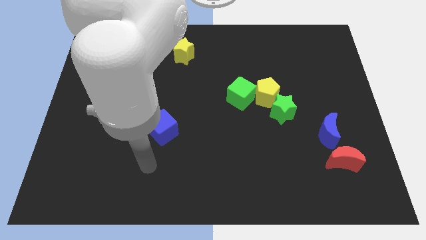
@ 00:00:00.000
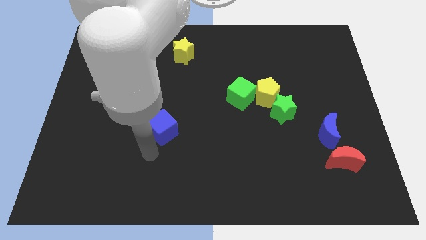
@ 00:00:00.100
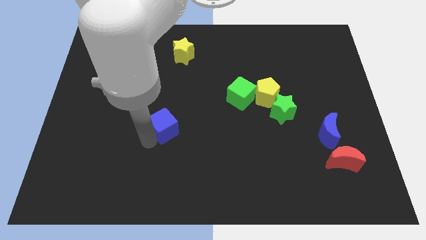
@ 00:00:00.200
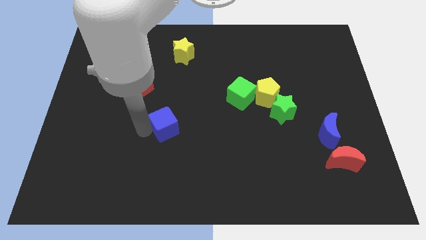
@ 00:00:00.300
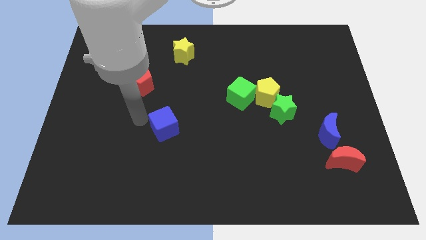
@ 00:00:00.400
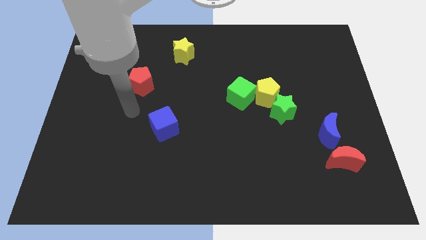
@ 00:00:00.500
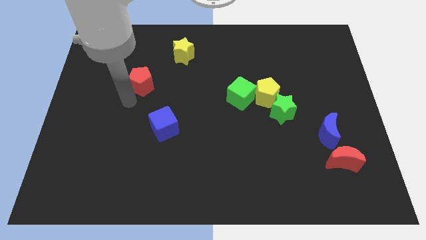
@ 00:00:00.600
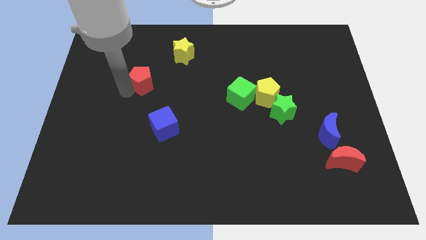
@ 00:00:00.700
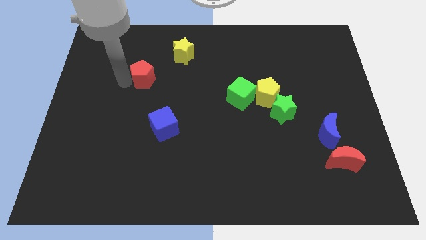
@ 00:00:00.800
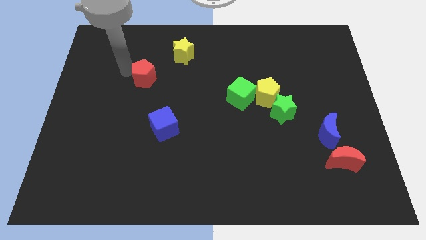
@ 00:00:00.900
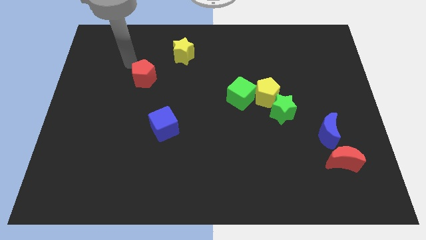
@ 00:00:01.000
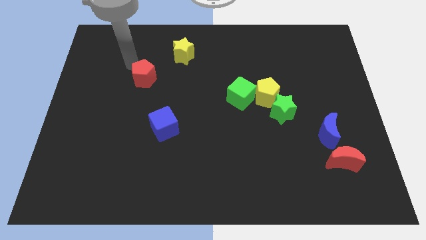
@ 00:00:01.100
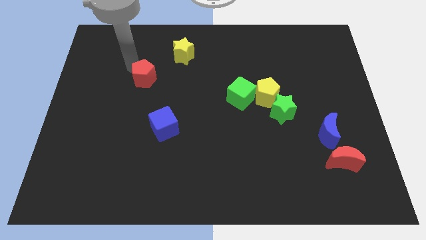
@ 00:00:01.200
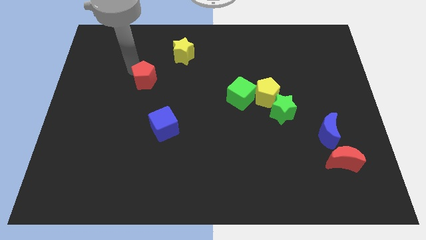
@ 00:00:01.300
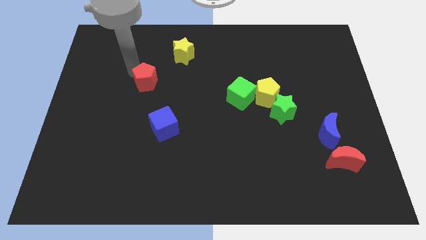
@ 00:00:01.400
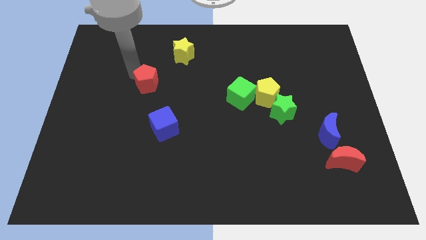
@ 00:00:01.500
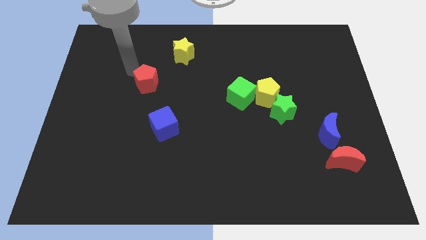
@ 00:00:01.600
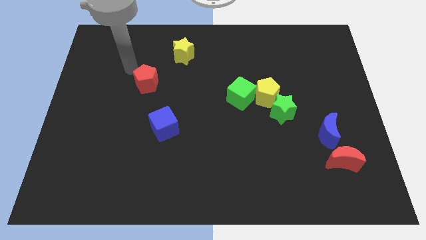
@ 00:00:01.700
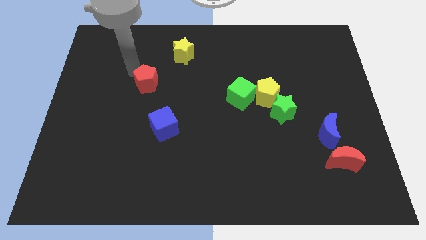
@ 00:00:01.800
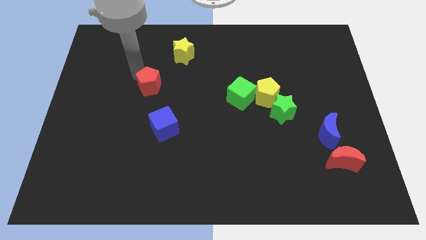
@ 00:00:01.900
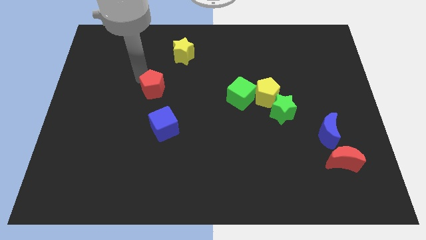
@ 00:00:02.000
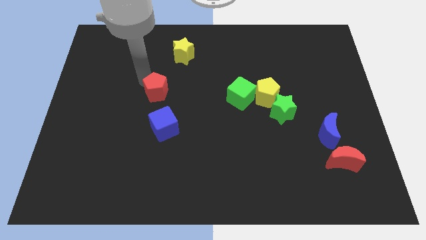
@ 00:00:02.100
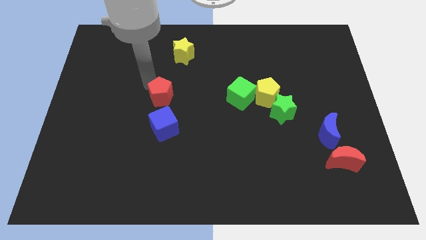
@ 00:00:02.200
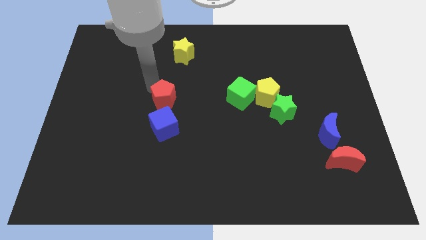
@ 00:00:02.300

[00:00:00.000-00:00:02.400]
push the red pentagon a little downwards and then to the right

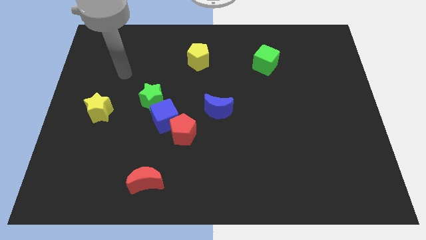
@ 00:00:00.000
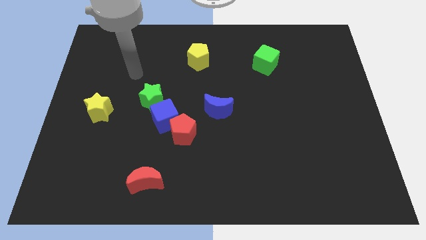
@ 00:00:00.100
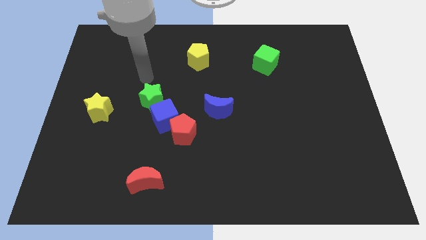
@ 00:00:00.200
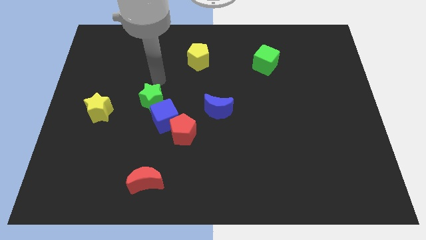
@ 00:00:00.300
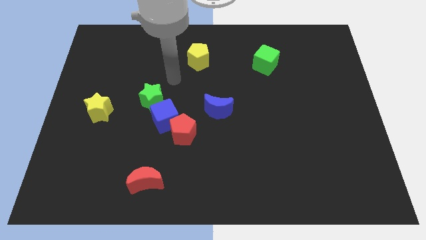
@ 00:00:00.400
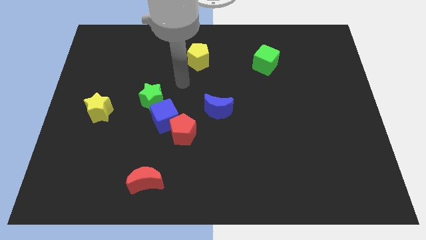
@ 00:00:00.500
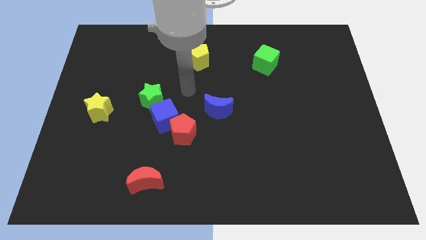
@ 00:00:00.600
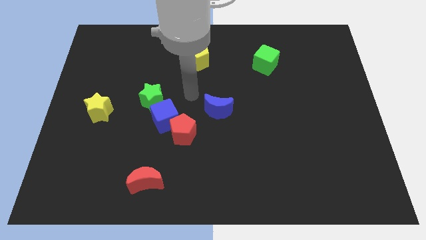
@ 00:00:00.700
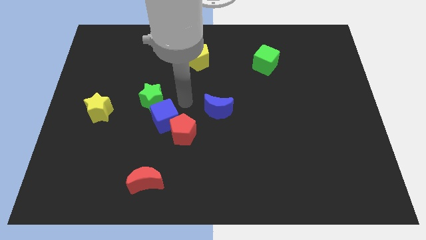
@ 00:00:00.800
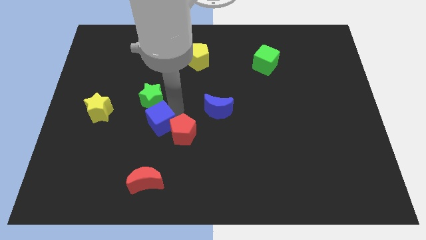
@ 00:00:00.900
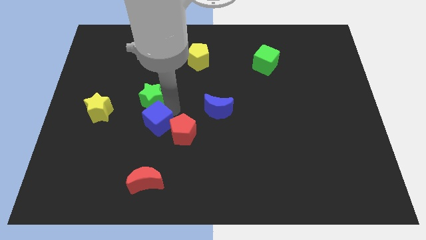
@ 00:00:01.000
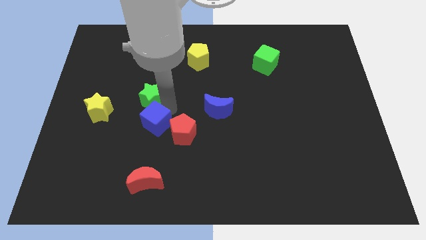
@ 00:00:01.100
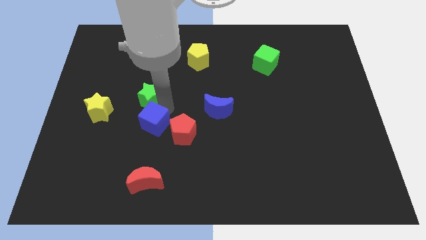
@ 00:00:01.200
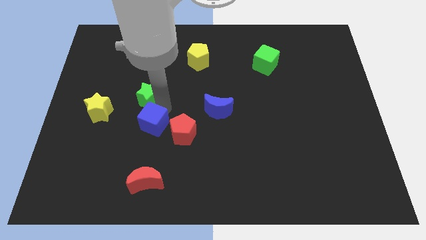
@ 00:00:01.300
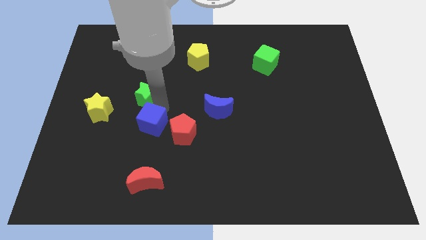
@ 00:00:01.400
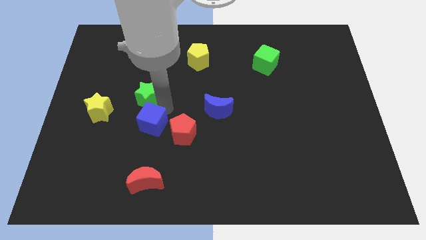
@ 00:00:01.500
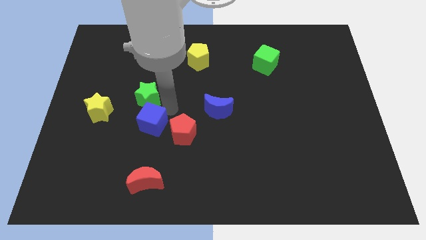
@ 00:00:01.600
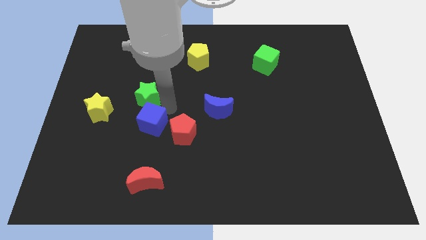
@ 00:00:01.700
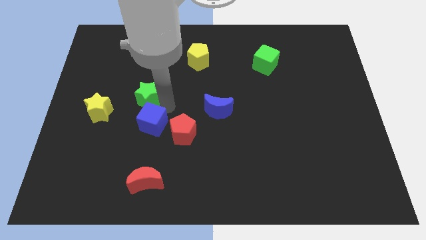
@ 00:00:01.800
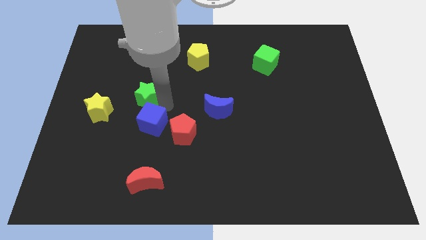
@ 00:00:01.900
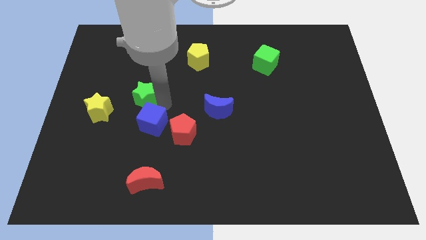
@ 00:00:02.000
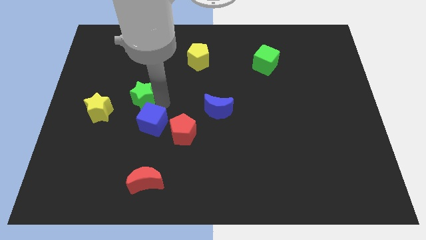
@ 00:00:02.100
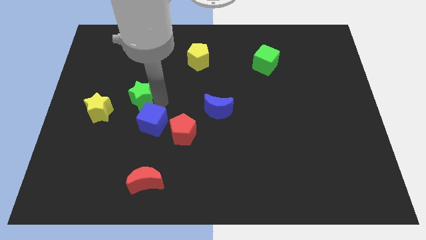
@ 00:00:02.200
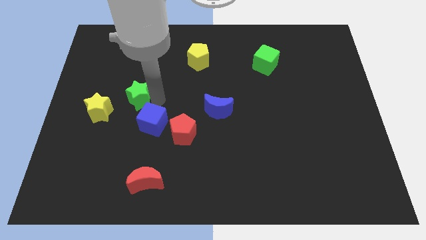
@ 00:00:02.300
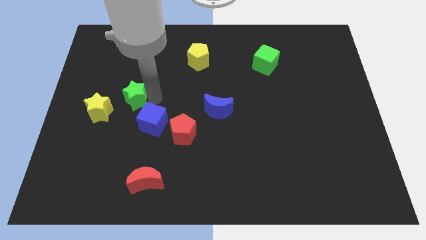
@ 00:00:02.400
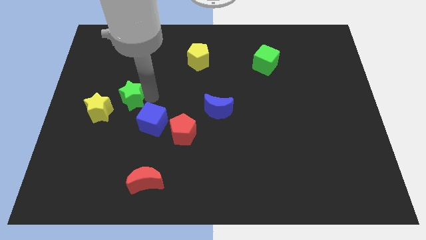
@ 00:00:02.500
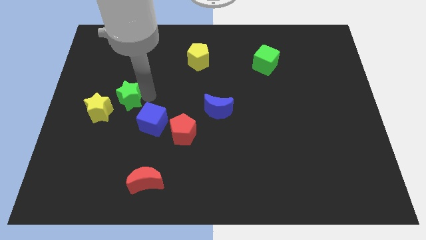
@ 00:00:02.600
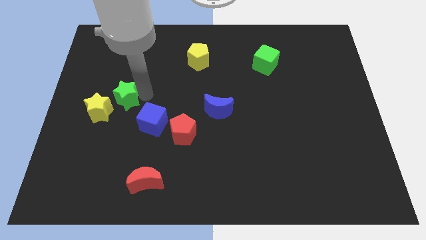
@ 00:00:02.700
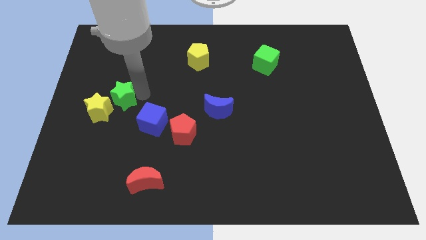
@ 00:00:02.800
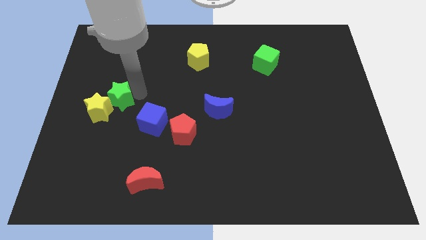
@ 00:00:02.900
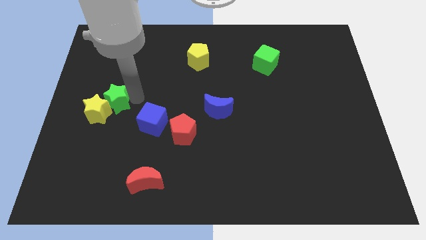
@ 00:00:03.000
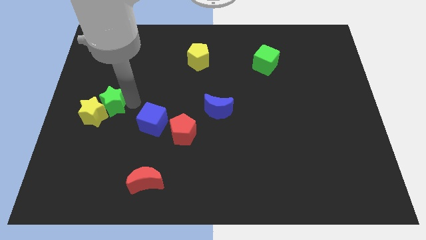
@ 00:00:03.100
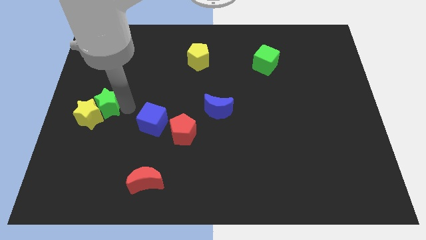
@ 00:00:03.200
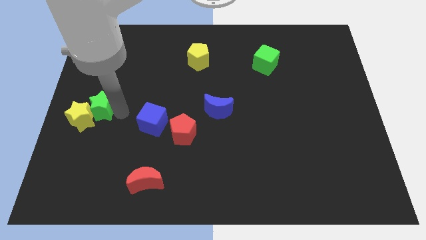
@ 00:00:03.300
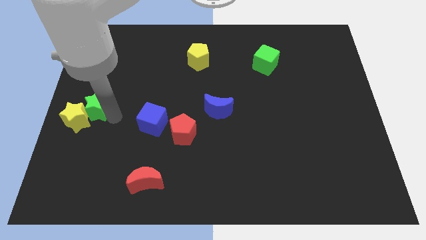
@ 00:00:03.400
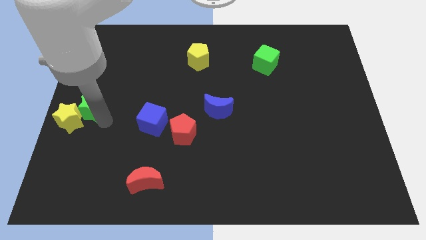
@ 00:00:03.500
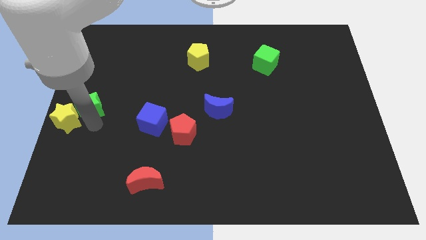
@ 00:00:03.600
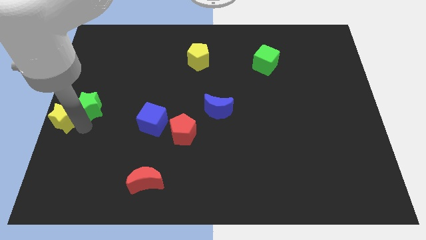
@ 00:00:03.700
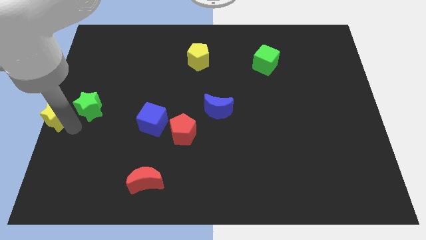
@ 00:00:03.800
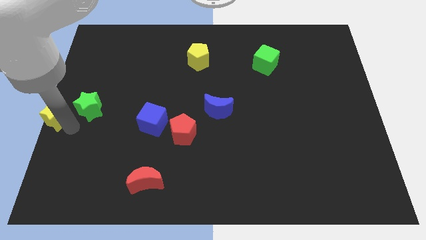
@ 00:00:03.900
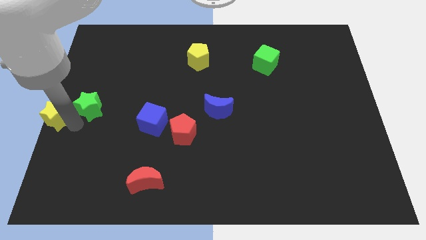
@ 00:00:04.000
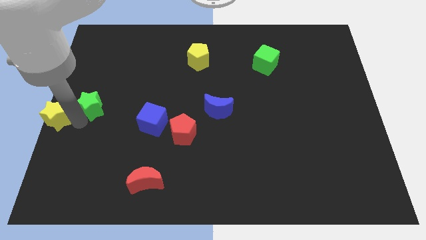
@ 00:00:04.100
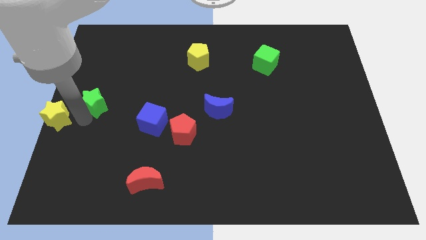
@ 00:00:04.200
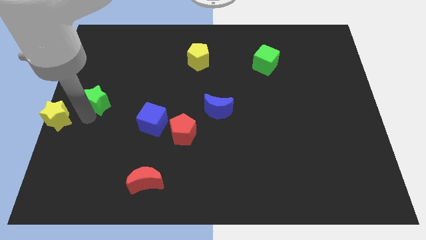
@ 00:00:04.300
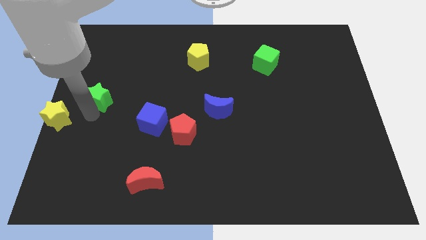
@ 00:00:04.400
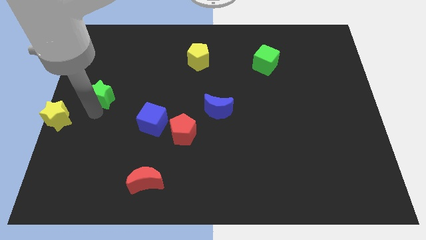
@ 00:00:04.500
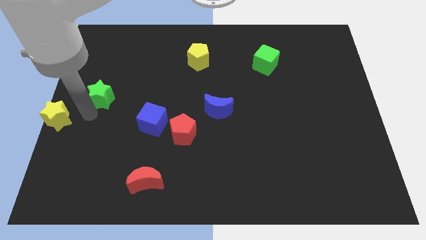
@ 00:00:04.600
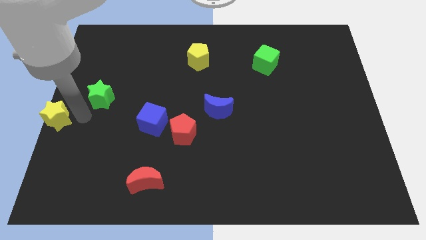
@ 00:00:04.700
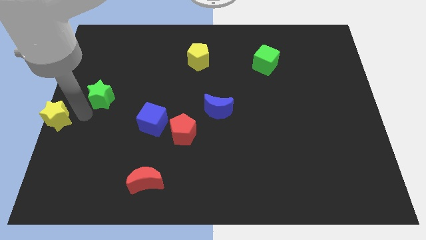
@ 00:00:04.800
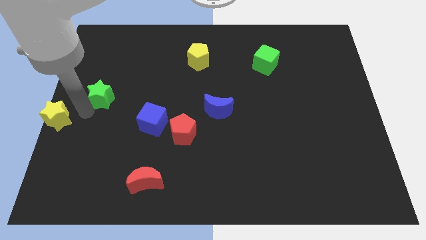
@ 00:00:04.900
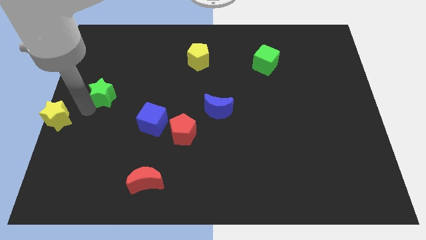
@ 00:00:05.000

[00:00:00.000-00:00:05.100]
push the green star upwards and to the left a little bit

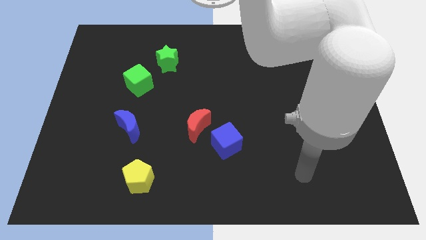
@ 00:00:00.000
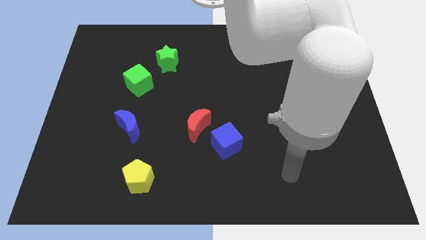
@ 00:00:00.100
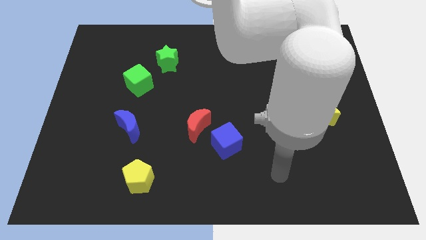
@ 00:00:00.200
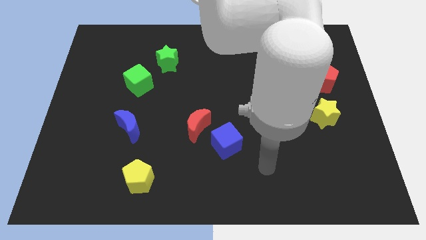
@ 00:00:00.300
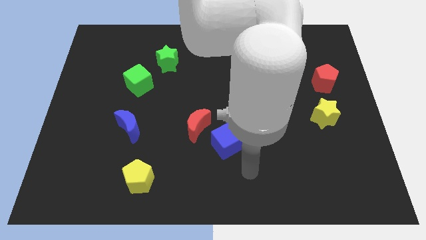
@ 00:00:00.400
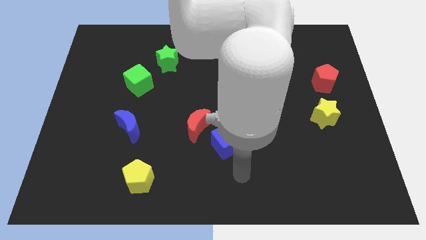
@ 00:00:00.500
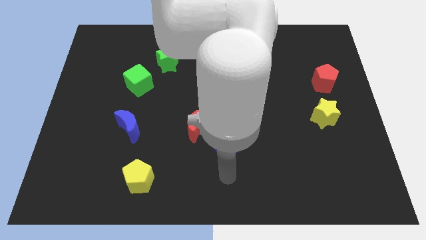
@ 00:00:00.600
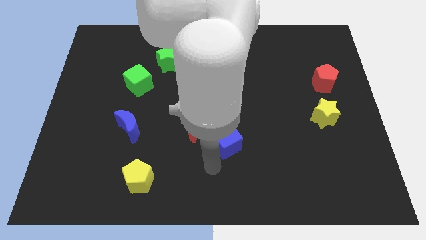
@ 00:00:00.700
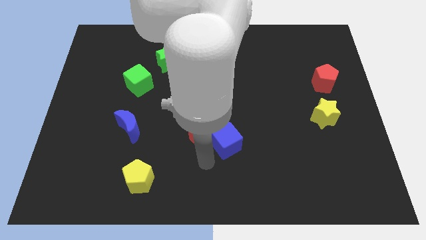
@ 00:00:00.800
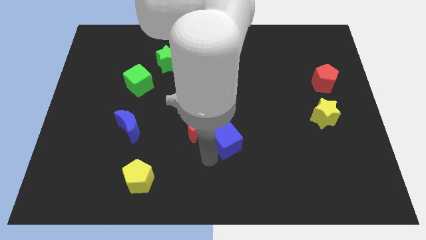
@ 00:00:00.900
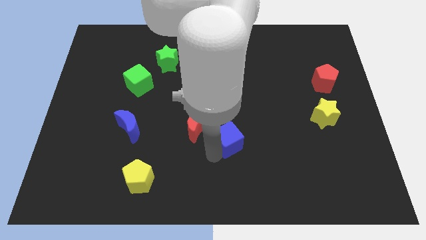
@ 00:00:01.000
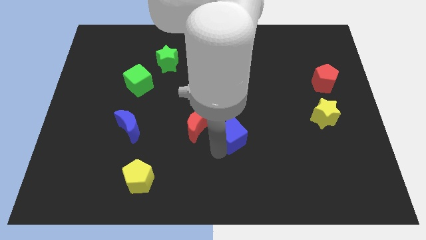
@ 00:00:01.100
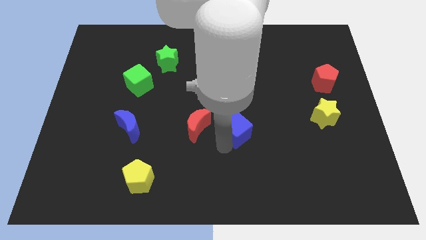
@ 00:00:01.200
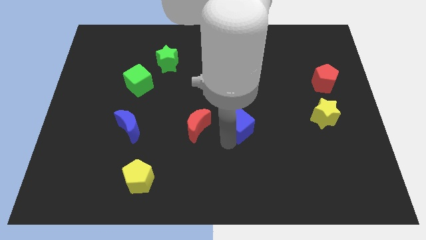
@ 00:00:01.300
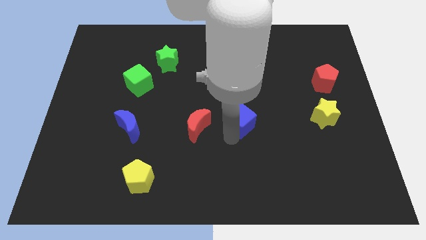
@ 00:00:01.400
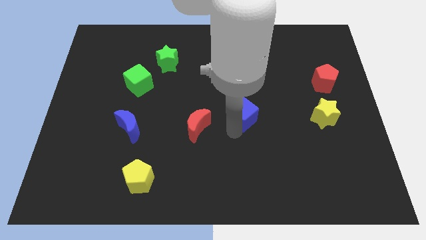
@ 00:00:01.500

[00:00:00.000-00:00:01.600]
slide the blue cube slightly up and to the right diagonally
